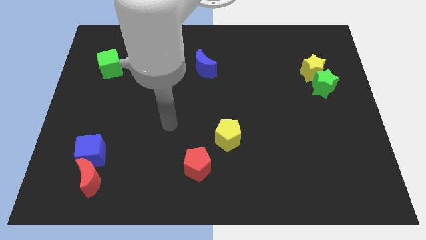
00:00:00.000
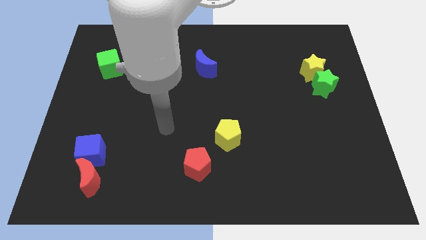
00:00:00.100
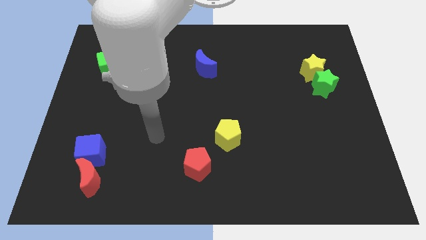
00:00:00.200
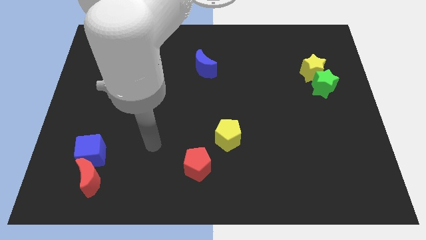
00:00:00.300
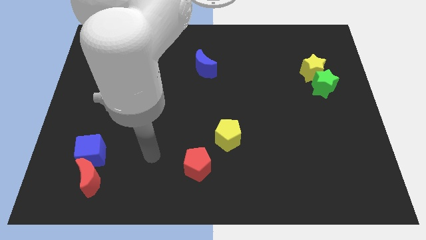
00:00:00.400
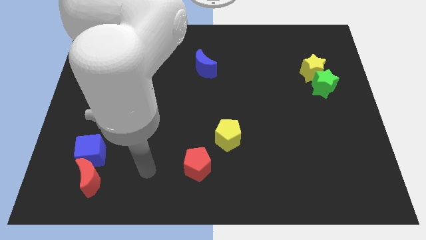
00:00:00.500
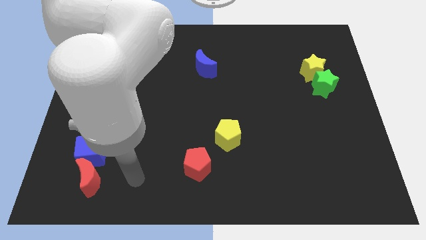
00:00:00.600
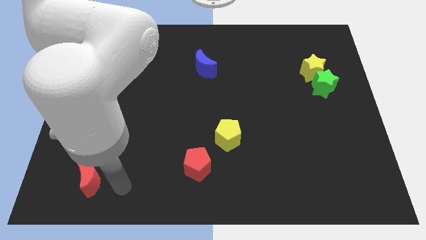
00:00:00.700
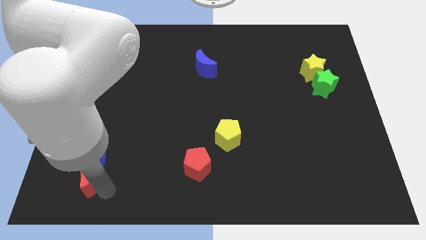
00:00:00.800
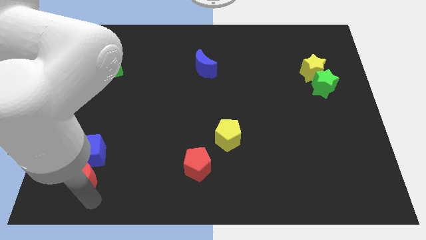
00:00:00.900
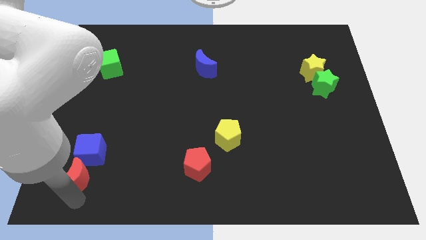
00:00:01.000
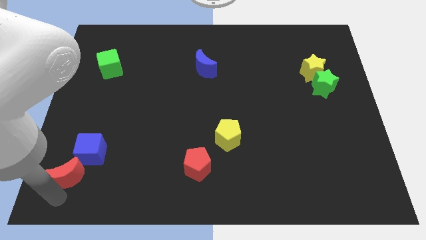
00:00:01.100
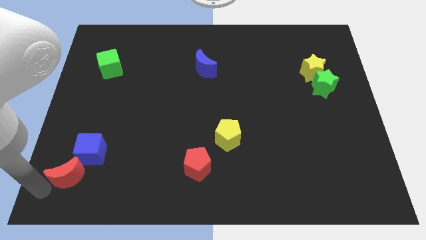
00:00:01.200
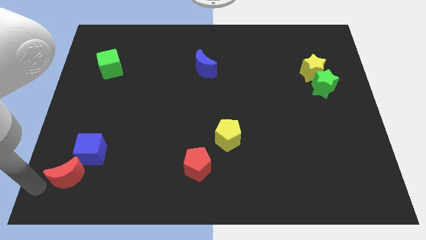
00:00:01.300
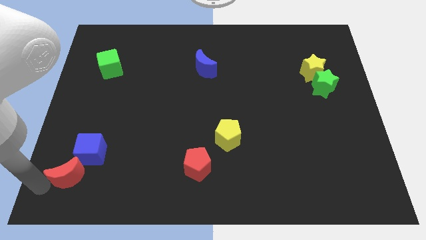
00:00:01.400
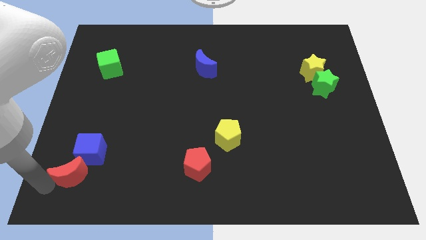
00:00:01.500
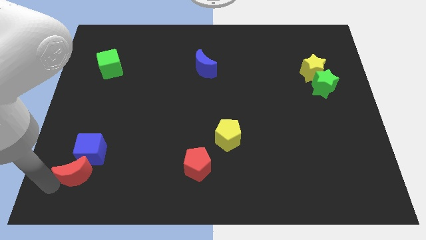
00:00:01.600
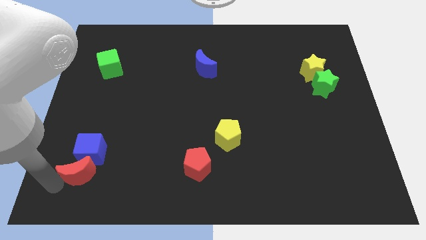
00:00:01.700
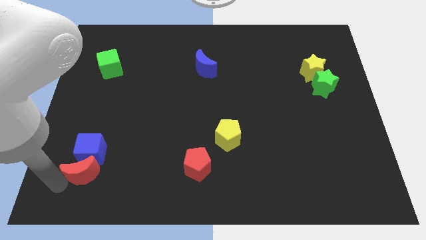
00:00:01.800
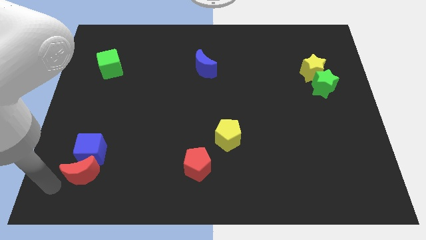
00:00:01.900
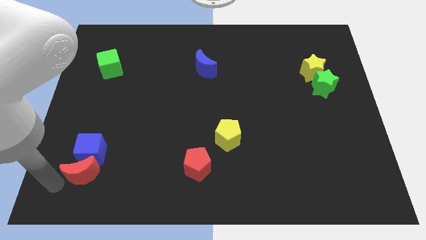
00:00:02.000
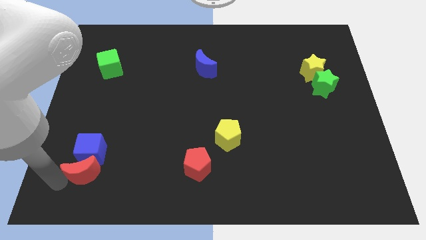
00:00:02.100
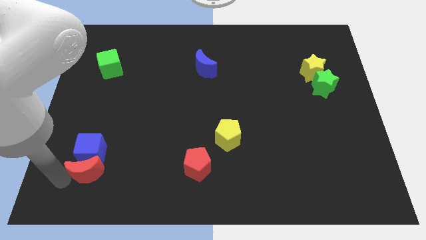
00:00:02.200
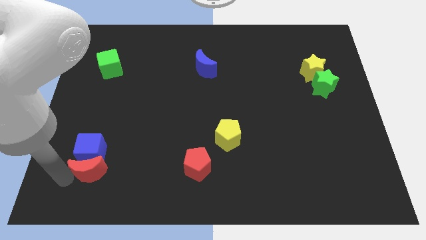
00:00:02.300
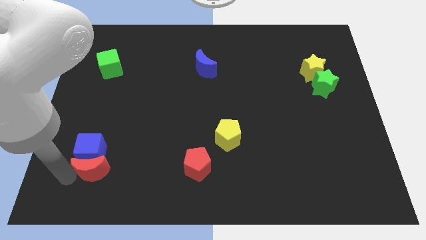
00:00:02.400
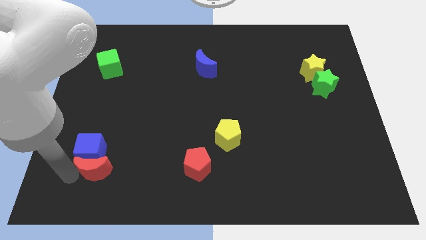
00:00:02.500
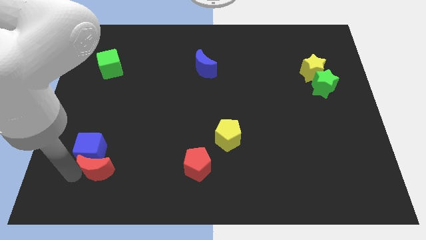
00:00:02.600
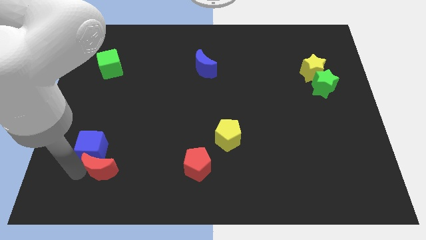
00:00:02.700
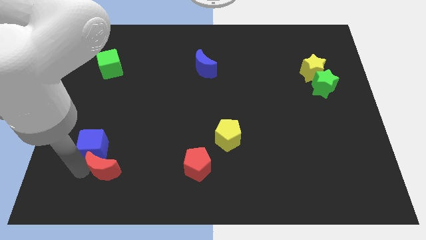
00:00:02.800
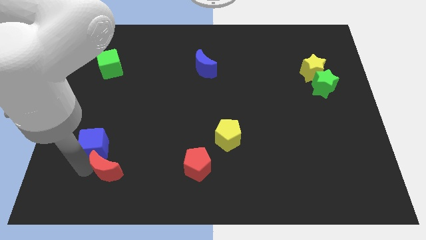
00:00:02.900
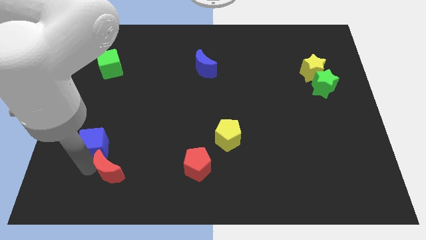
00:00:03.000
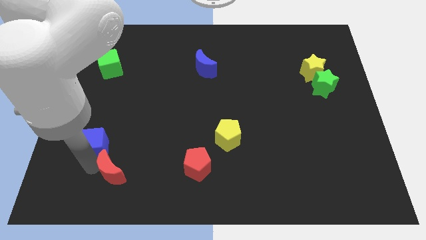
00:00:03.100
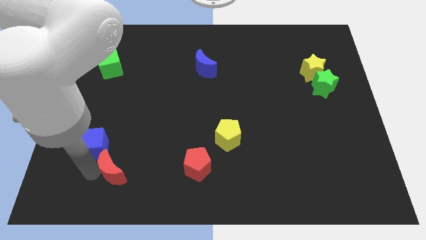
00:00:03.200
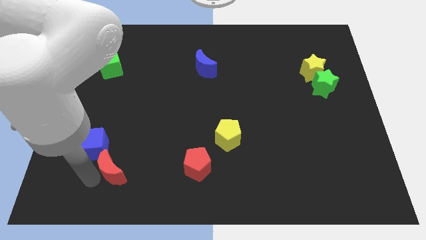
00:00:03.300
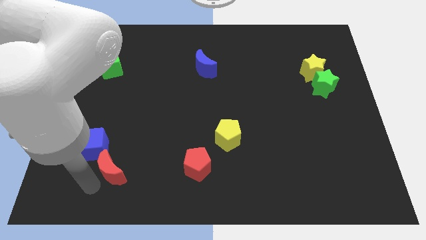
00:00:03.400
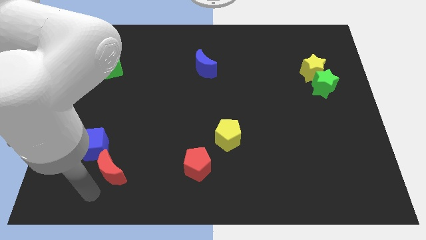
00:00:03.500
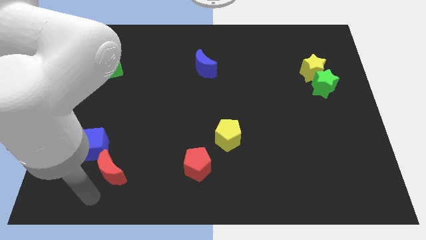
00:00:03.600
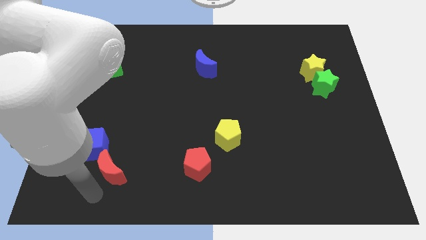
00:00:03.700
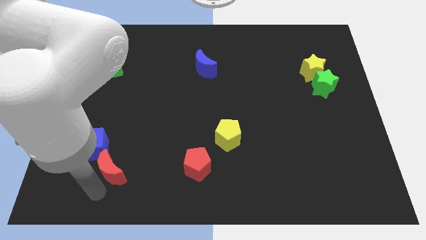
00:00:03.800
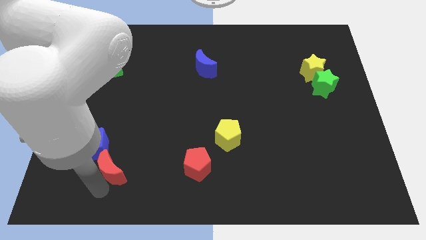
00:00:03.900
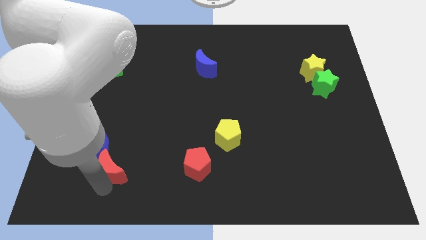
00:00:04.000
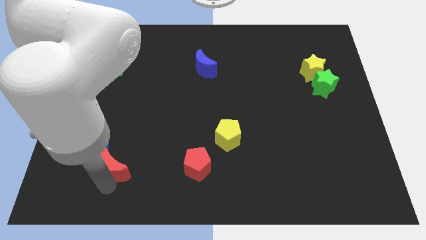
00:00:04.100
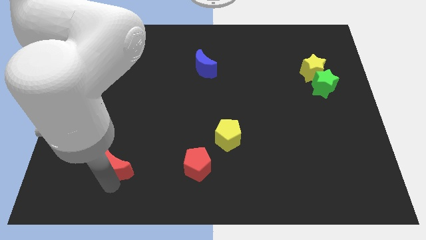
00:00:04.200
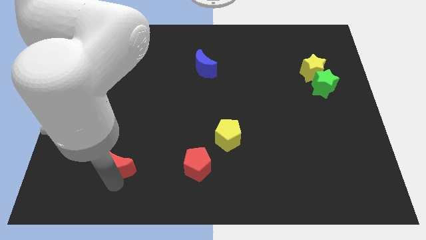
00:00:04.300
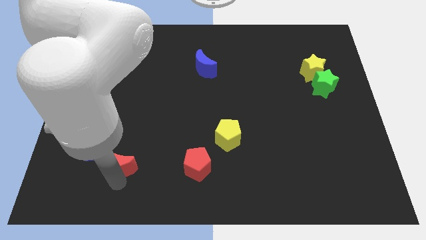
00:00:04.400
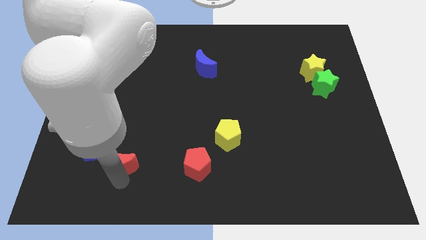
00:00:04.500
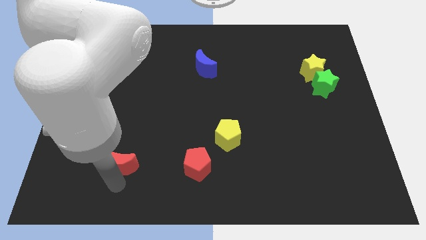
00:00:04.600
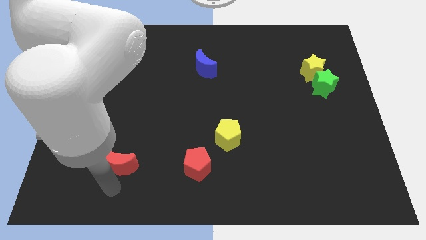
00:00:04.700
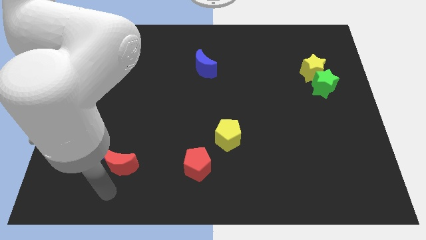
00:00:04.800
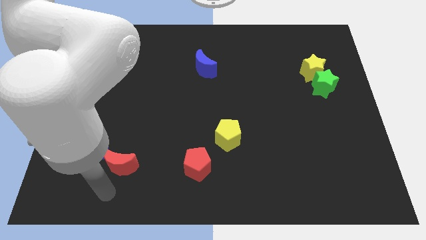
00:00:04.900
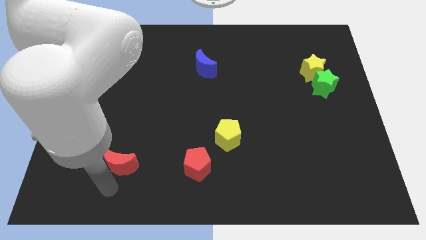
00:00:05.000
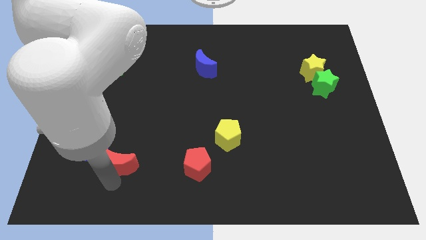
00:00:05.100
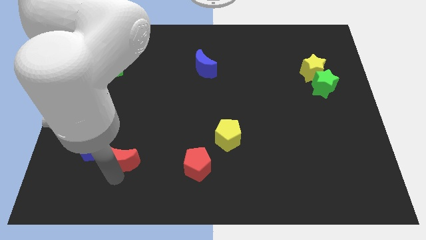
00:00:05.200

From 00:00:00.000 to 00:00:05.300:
slightly push the red moon diagonally upwards and to the right

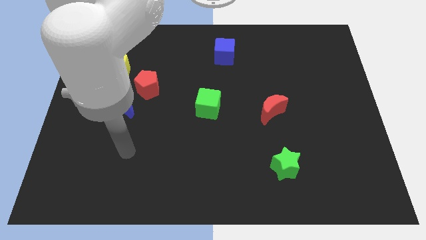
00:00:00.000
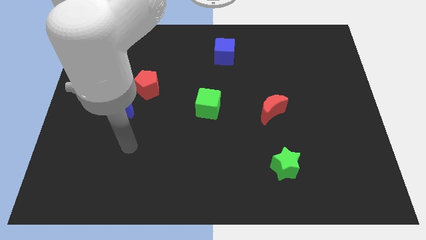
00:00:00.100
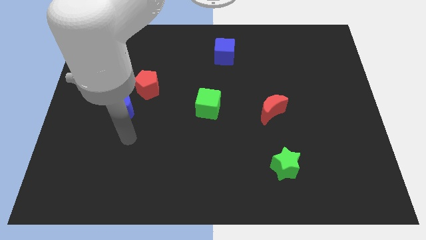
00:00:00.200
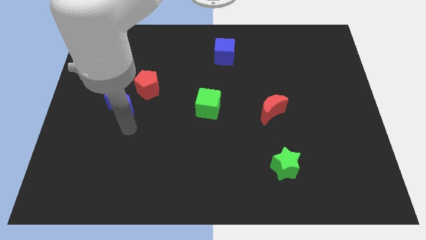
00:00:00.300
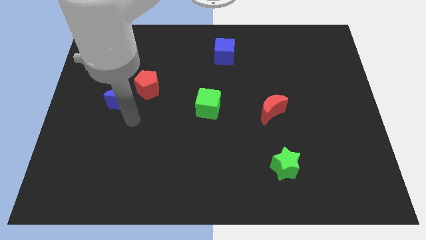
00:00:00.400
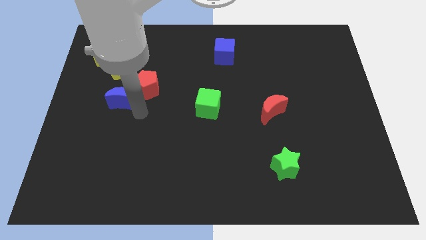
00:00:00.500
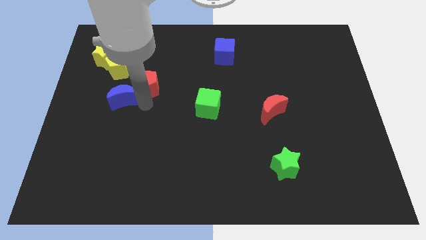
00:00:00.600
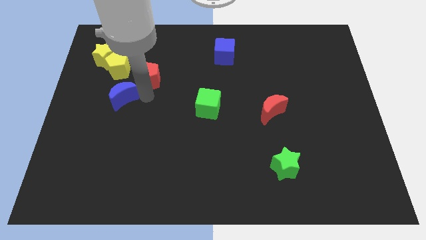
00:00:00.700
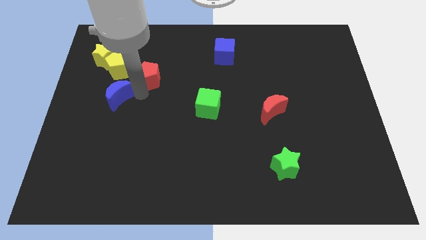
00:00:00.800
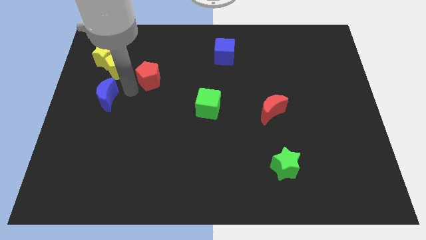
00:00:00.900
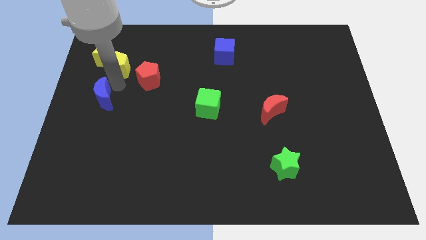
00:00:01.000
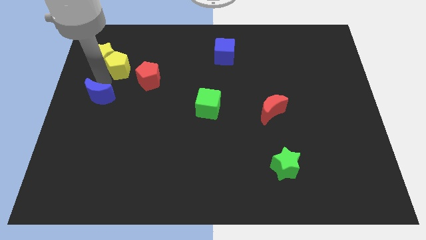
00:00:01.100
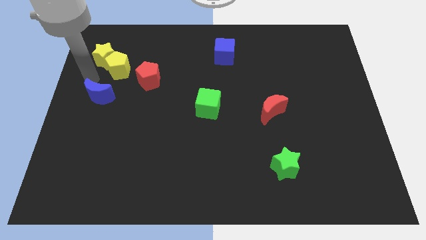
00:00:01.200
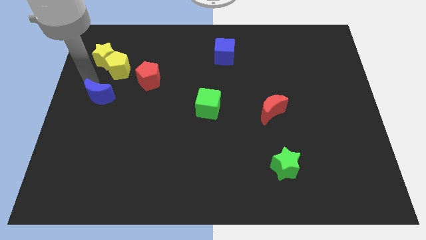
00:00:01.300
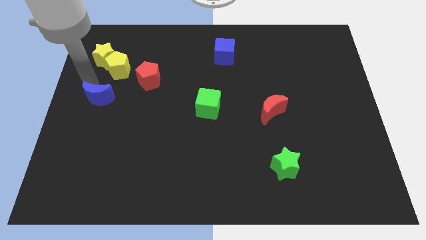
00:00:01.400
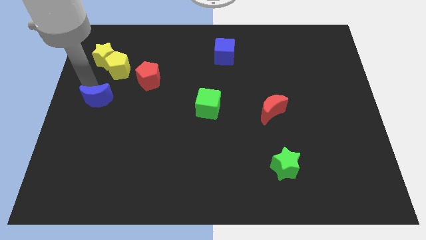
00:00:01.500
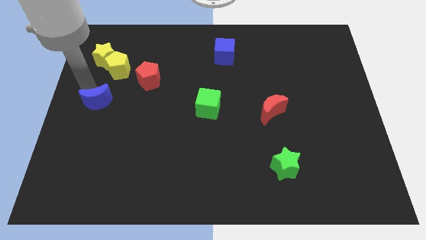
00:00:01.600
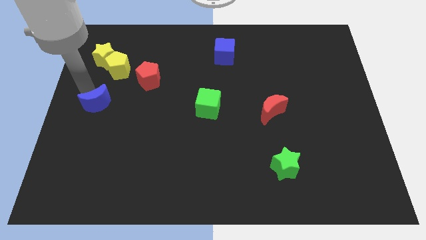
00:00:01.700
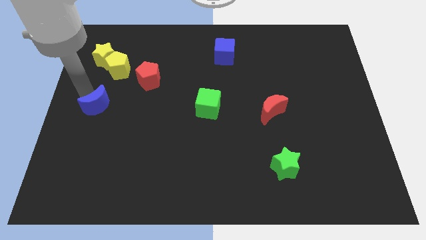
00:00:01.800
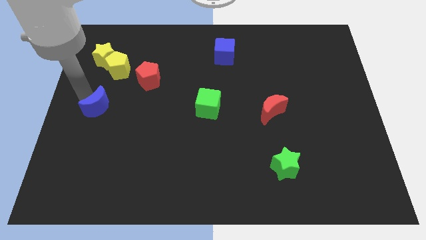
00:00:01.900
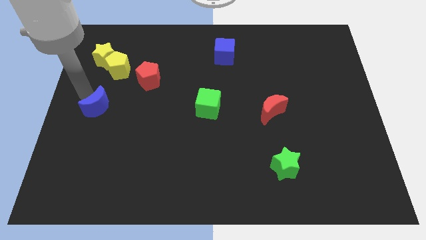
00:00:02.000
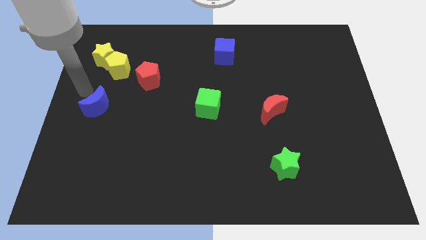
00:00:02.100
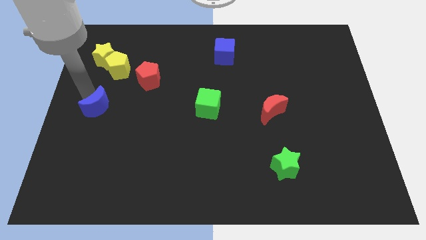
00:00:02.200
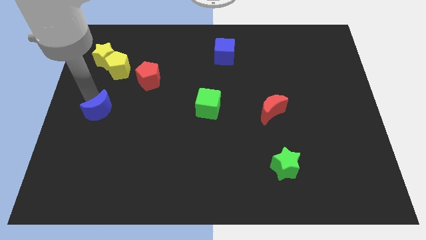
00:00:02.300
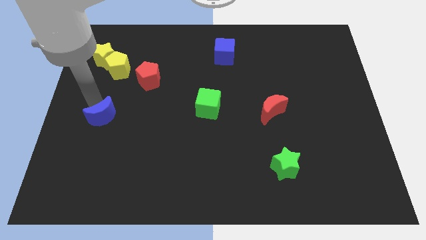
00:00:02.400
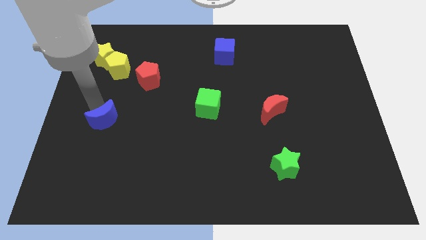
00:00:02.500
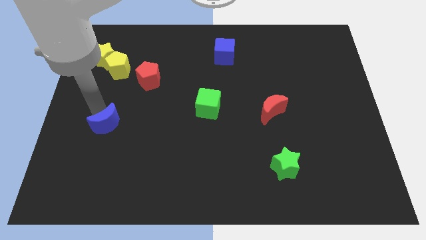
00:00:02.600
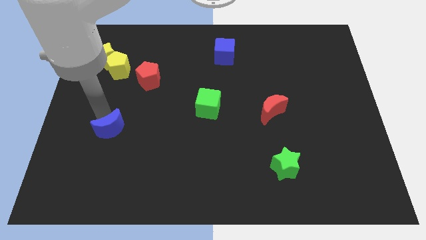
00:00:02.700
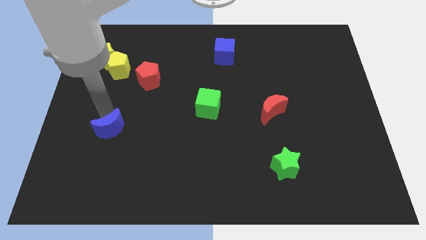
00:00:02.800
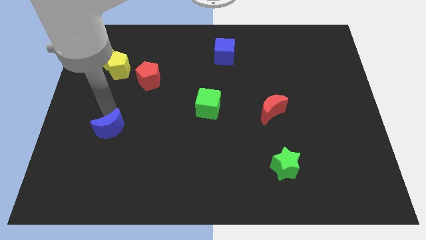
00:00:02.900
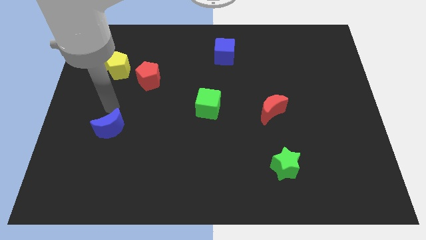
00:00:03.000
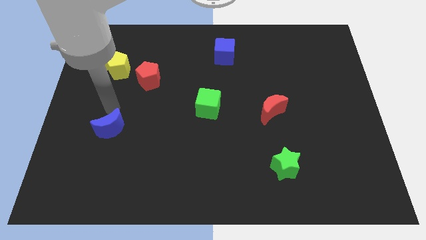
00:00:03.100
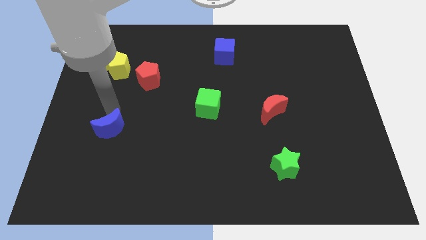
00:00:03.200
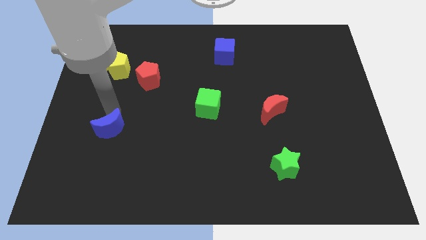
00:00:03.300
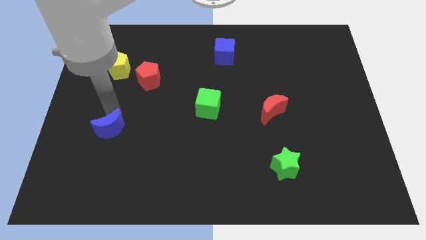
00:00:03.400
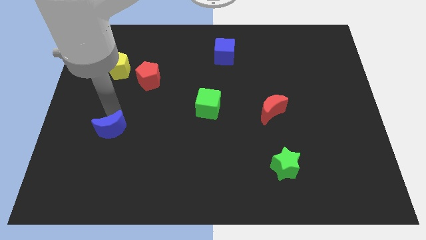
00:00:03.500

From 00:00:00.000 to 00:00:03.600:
slide the blue moon down a little
